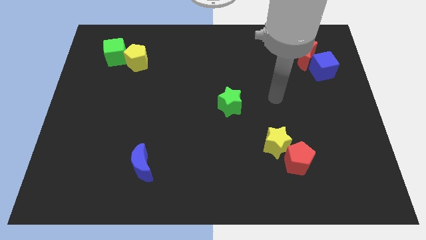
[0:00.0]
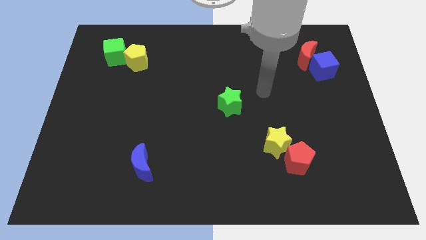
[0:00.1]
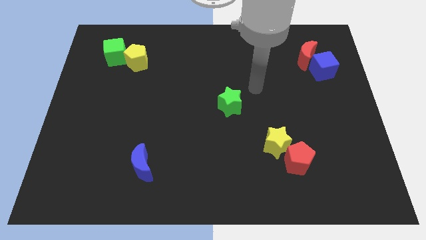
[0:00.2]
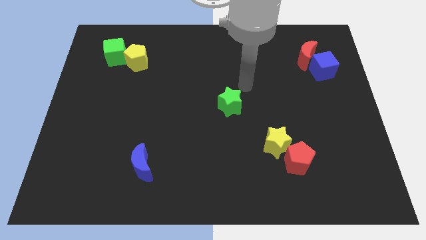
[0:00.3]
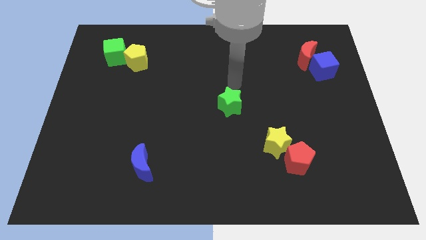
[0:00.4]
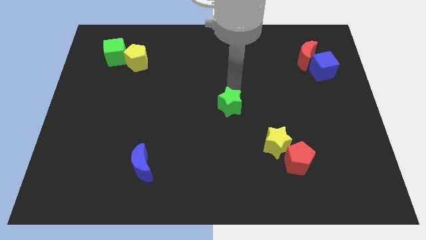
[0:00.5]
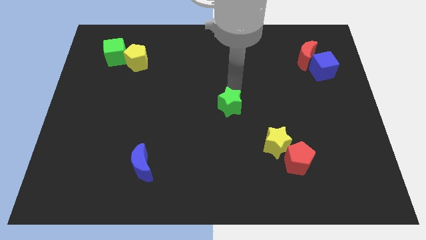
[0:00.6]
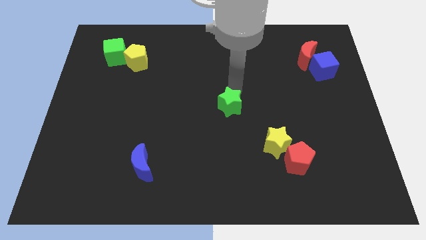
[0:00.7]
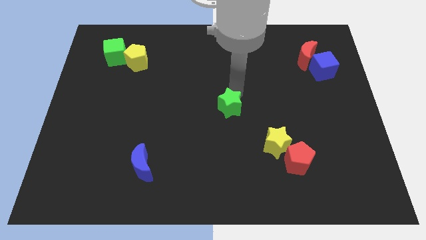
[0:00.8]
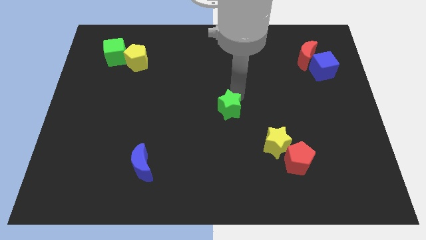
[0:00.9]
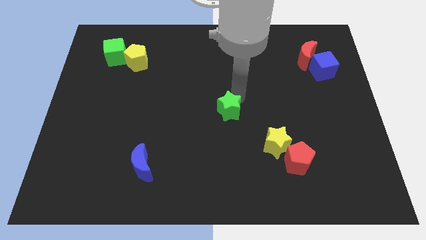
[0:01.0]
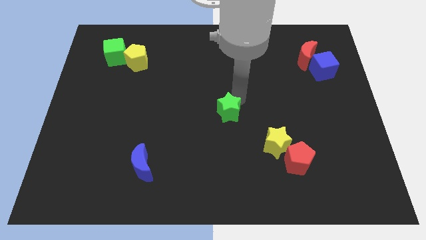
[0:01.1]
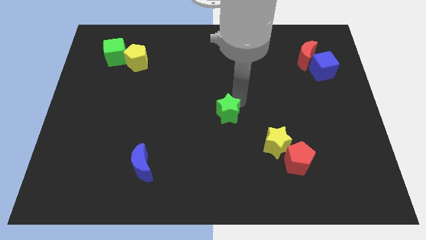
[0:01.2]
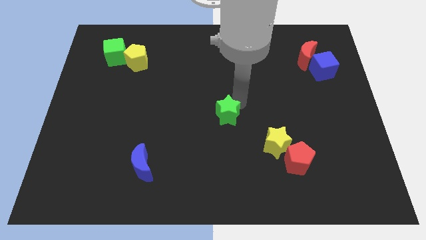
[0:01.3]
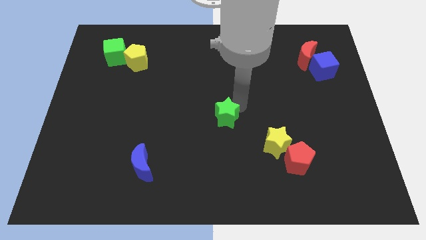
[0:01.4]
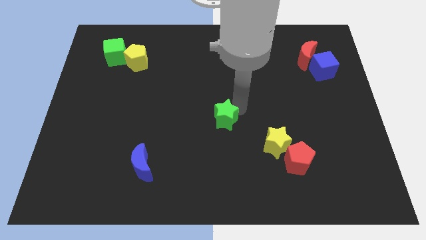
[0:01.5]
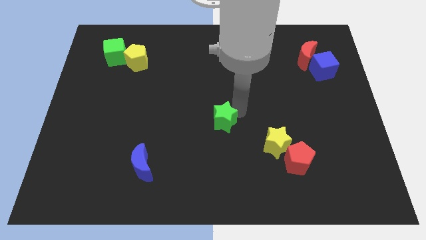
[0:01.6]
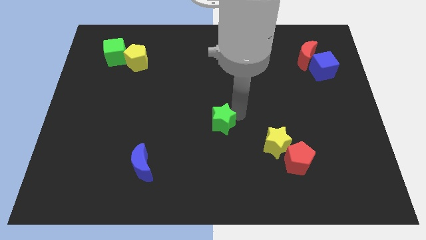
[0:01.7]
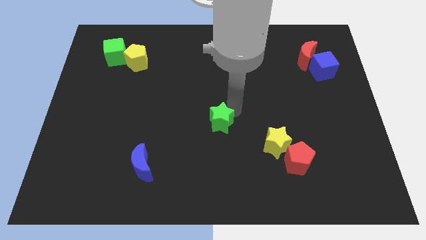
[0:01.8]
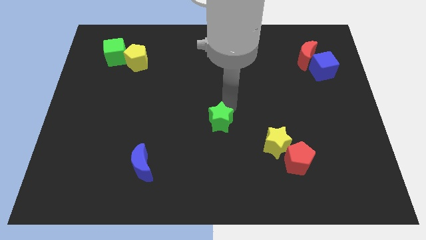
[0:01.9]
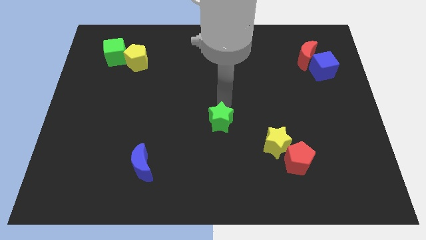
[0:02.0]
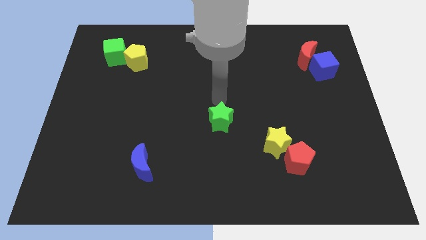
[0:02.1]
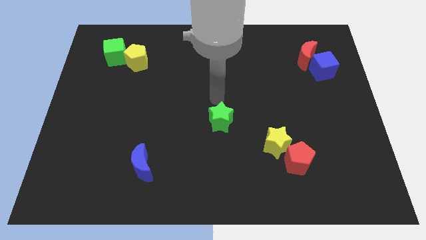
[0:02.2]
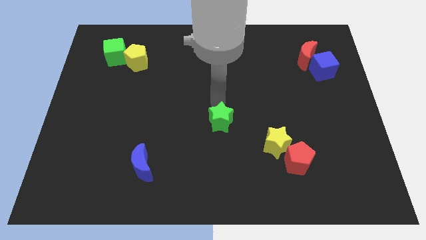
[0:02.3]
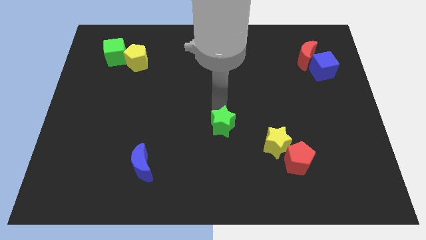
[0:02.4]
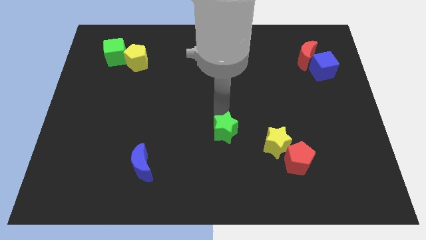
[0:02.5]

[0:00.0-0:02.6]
push the green star slightly down

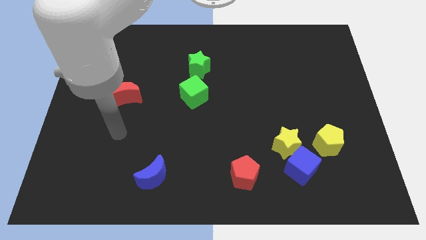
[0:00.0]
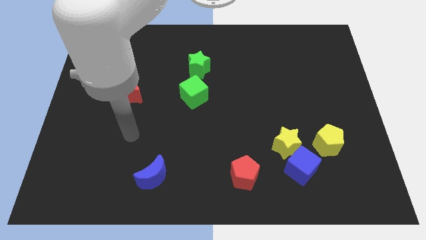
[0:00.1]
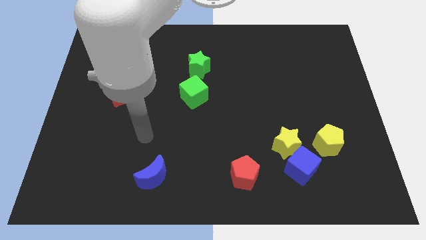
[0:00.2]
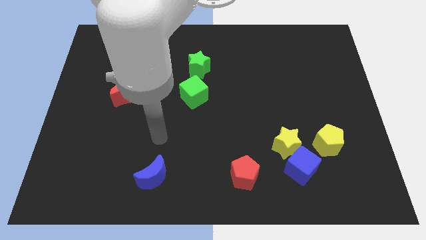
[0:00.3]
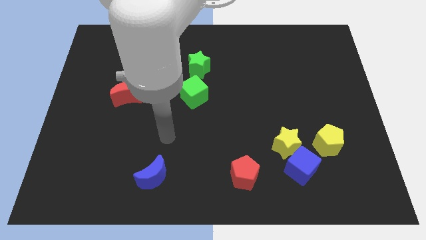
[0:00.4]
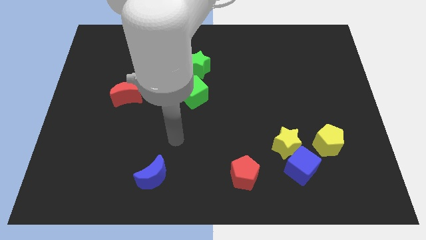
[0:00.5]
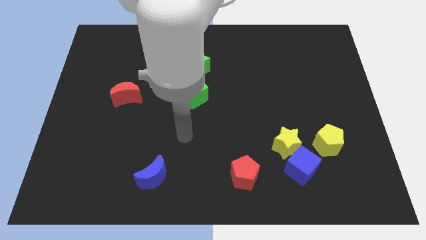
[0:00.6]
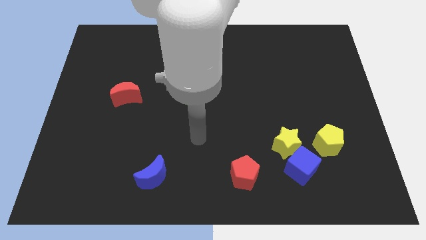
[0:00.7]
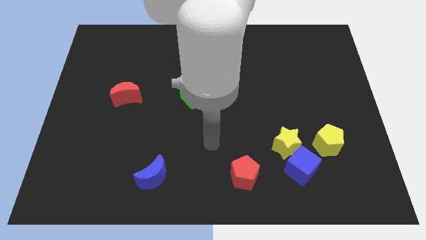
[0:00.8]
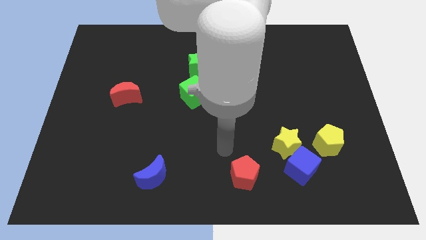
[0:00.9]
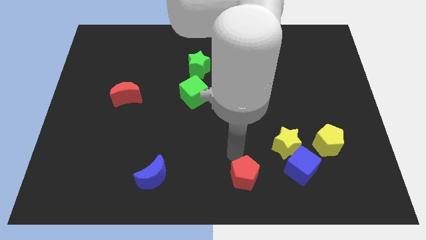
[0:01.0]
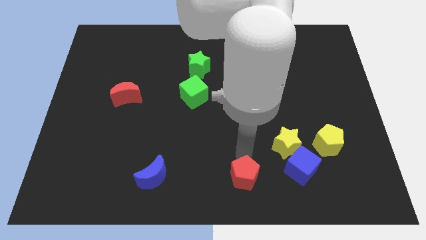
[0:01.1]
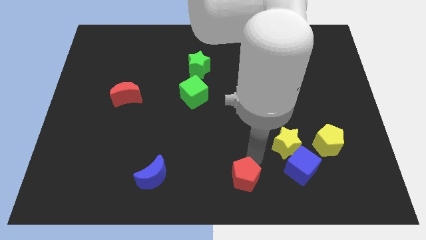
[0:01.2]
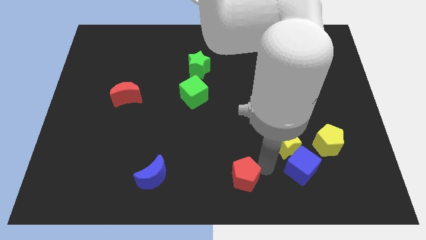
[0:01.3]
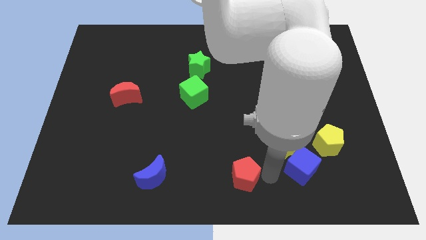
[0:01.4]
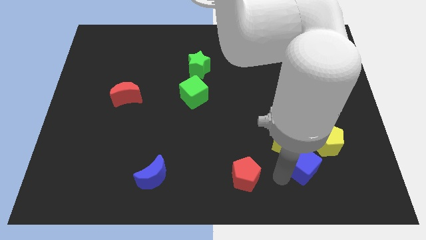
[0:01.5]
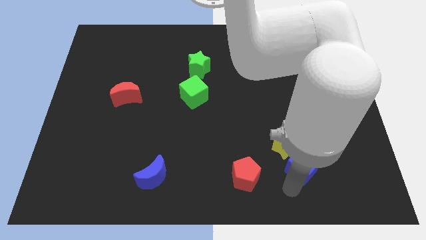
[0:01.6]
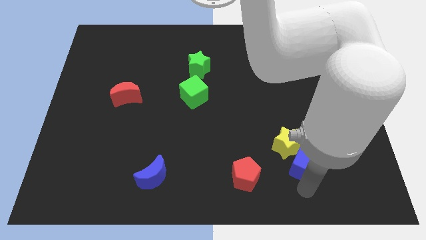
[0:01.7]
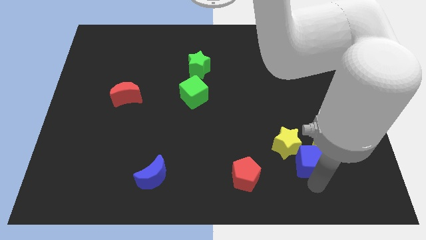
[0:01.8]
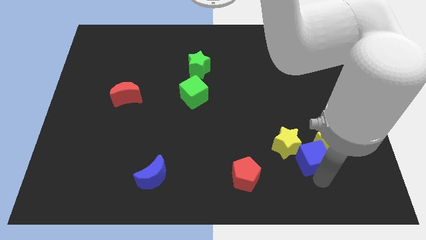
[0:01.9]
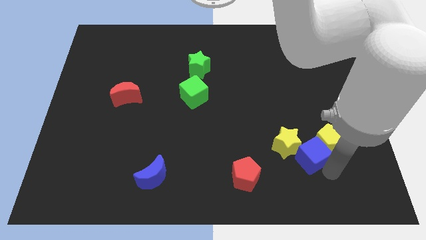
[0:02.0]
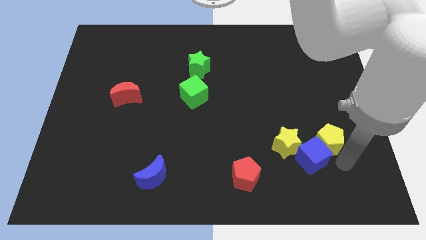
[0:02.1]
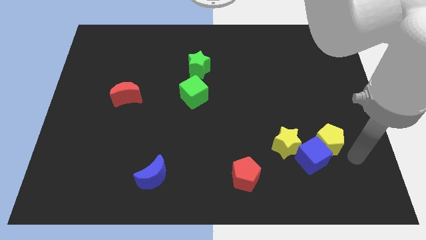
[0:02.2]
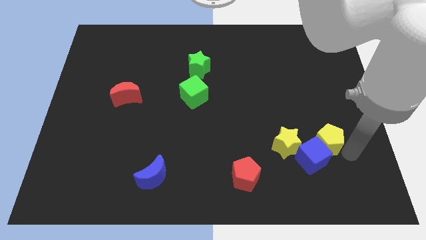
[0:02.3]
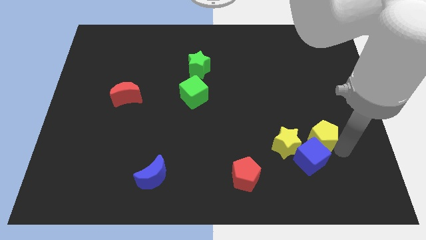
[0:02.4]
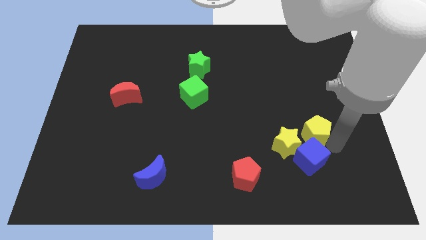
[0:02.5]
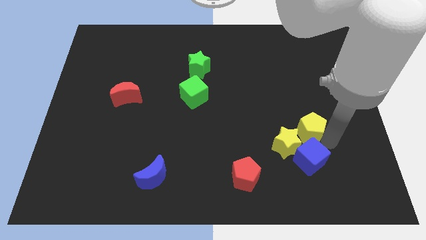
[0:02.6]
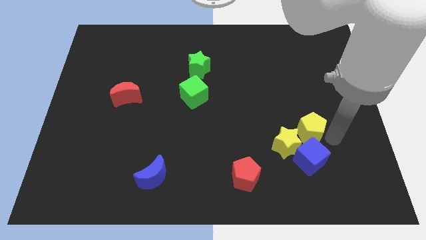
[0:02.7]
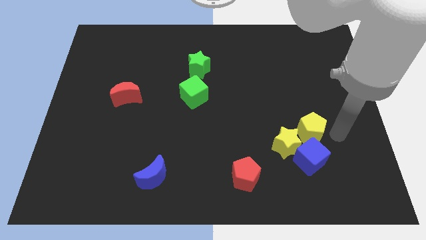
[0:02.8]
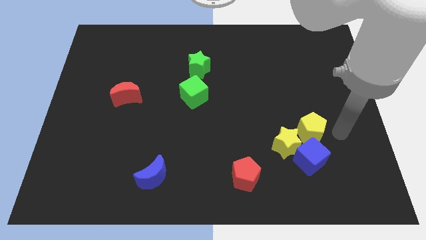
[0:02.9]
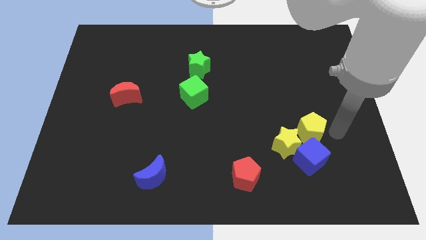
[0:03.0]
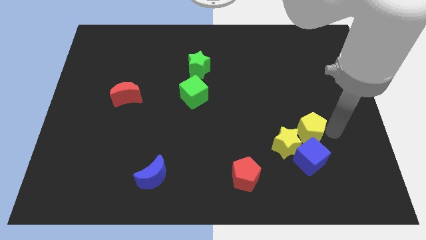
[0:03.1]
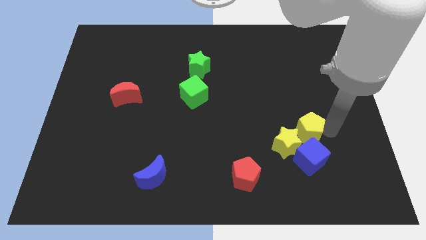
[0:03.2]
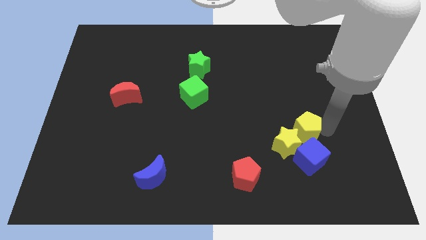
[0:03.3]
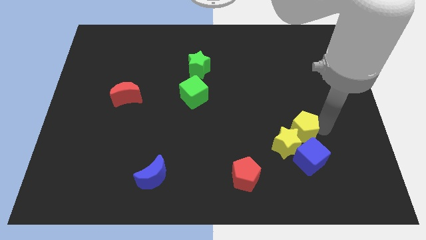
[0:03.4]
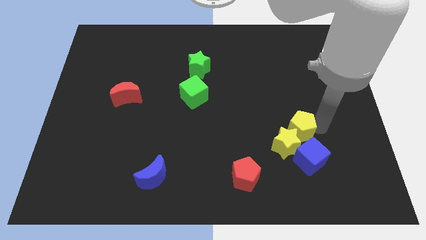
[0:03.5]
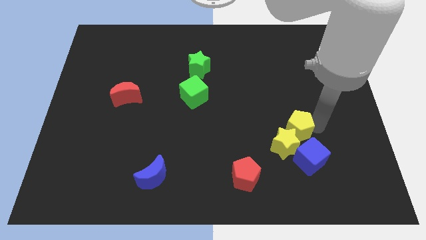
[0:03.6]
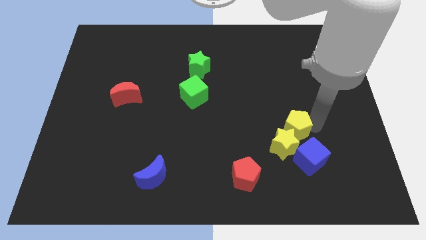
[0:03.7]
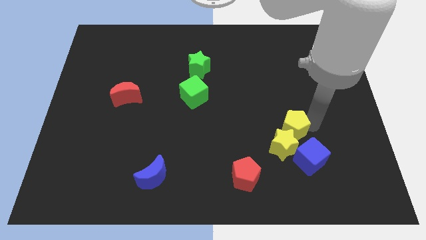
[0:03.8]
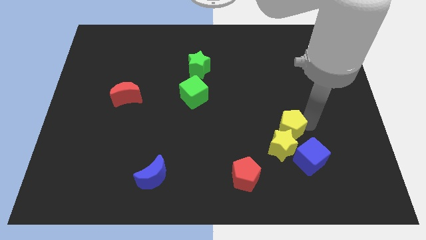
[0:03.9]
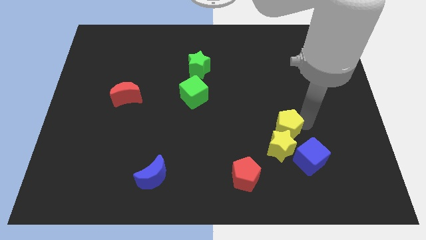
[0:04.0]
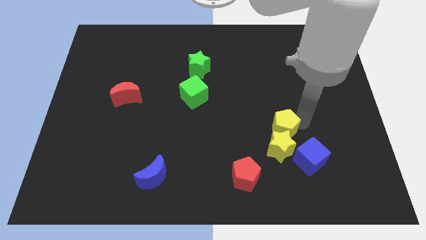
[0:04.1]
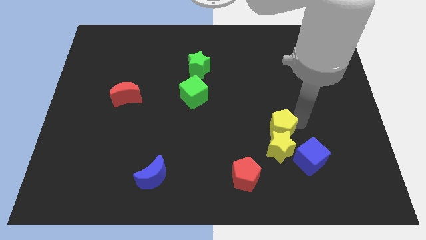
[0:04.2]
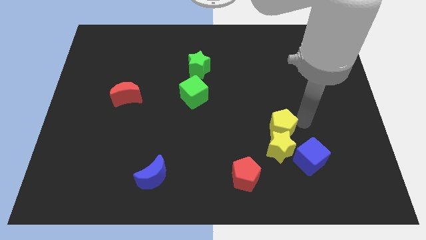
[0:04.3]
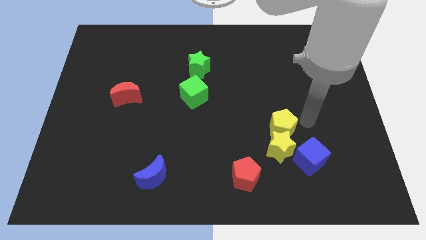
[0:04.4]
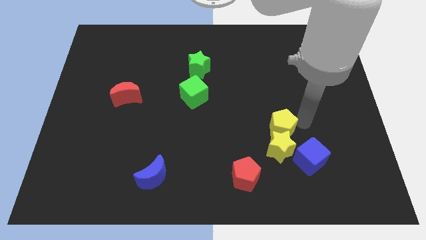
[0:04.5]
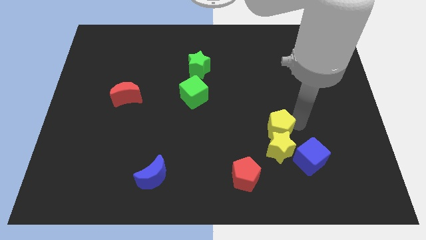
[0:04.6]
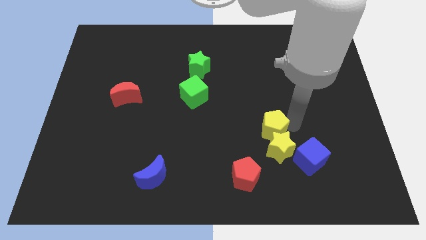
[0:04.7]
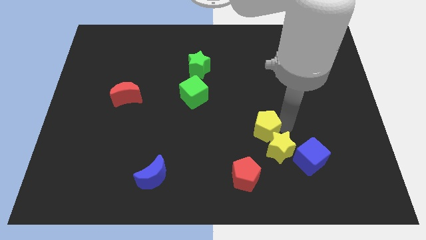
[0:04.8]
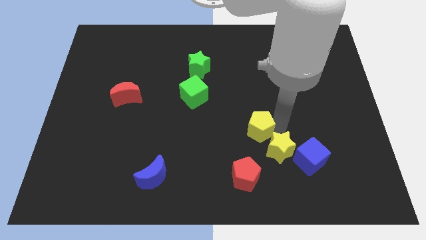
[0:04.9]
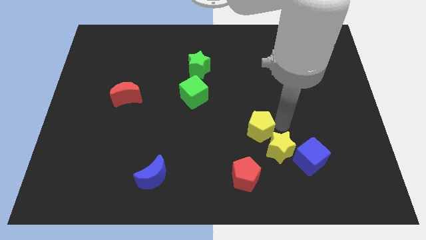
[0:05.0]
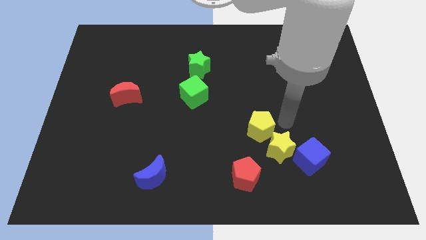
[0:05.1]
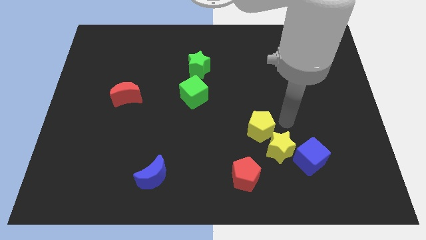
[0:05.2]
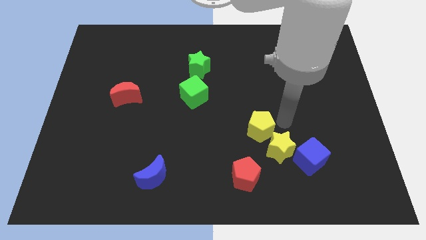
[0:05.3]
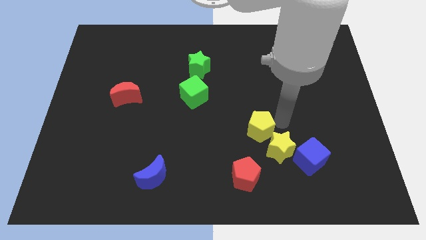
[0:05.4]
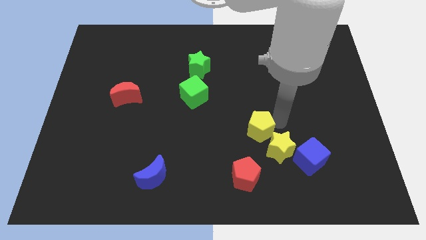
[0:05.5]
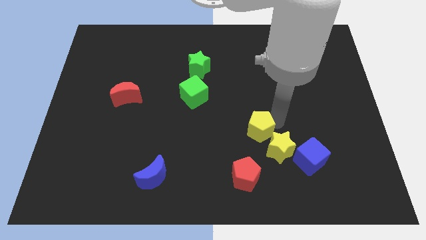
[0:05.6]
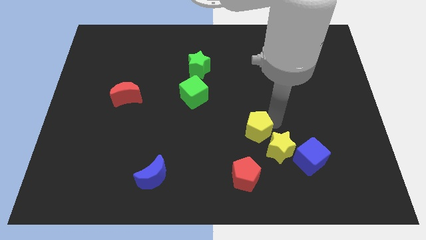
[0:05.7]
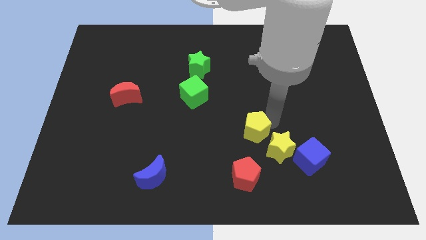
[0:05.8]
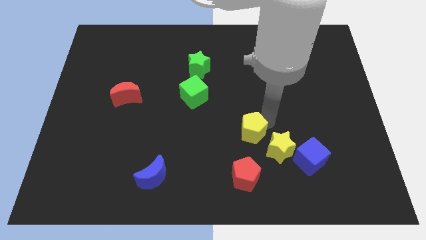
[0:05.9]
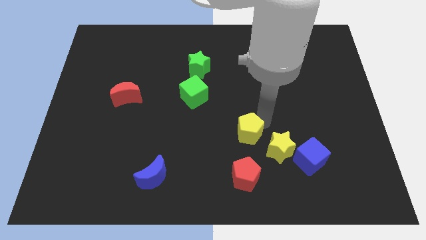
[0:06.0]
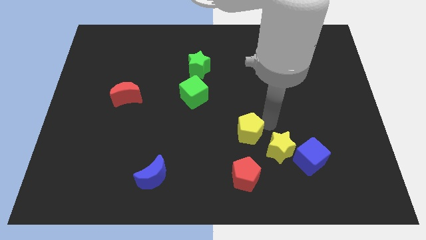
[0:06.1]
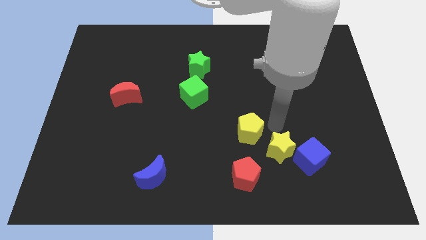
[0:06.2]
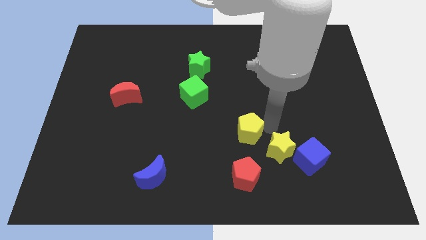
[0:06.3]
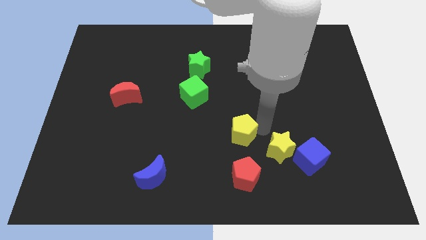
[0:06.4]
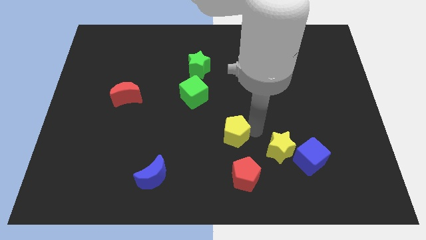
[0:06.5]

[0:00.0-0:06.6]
slide the yellow pentagon left
